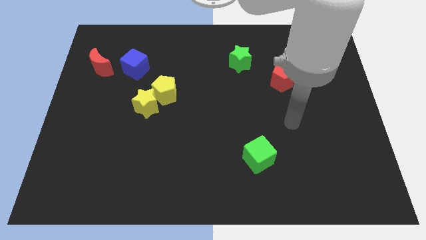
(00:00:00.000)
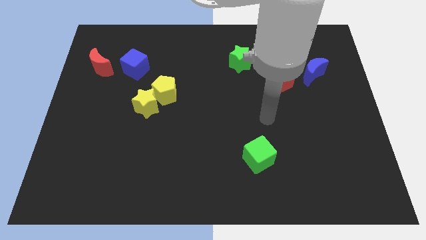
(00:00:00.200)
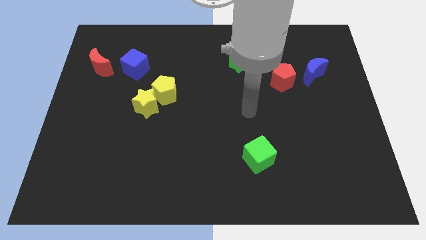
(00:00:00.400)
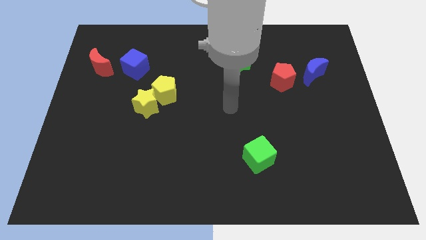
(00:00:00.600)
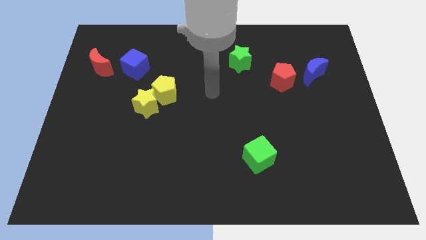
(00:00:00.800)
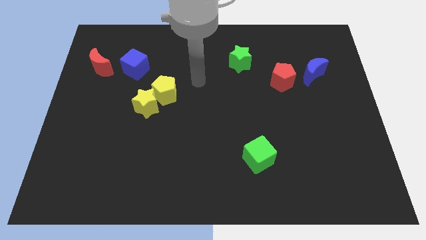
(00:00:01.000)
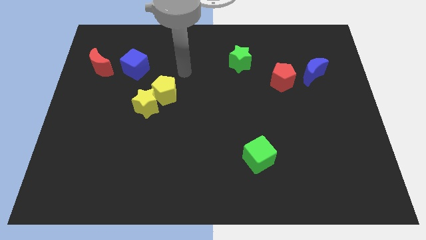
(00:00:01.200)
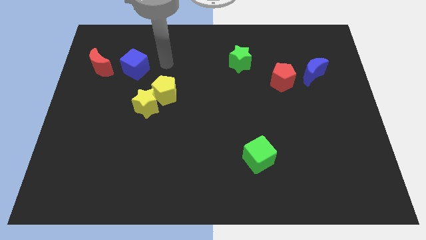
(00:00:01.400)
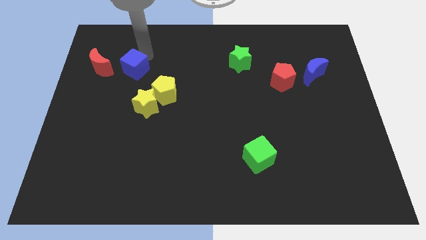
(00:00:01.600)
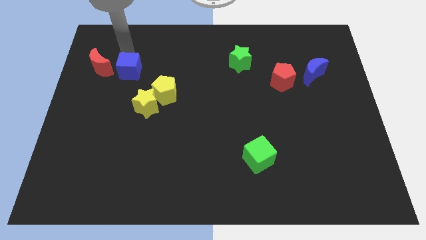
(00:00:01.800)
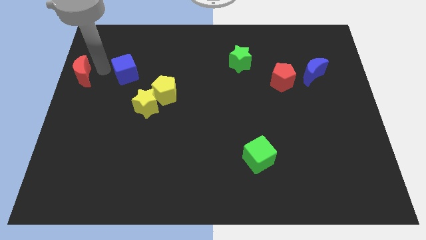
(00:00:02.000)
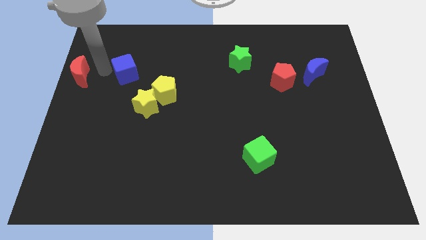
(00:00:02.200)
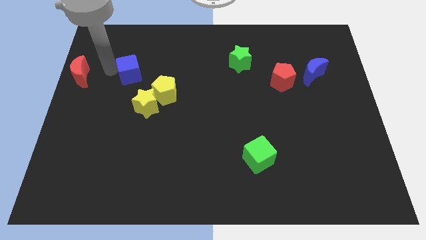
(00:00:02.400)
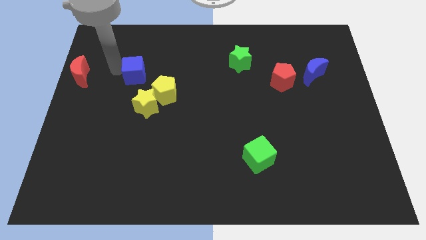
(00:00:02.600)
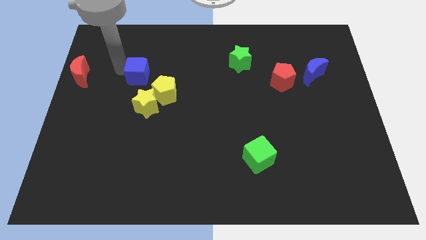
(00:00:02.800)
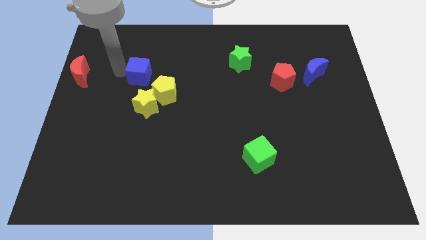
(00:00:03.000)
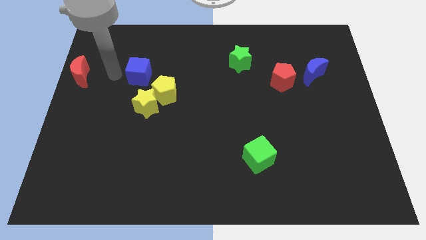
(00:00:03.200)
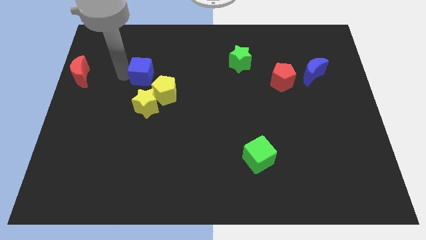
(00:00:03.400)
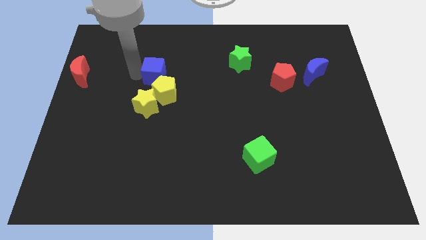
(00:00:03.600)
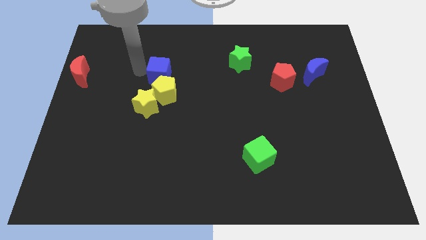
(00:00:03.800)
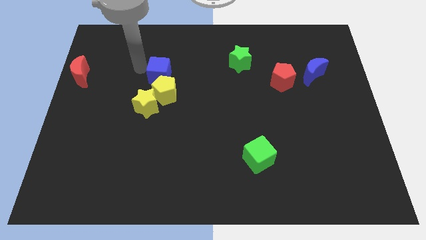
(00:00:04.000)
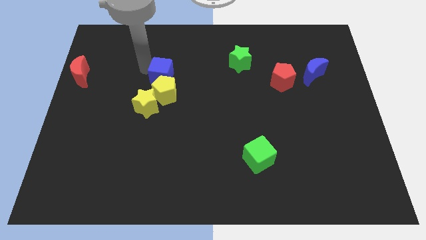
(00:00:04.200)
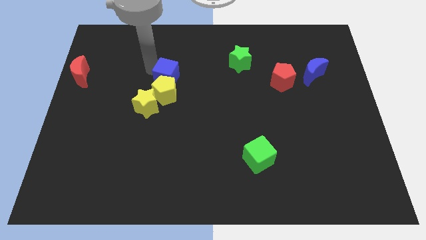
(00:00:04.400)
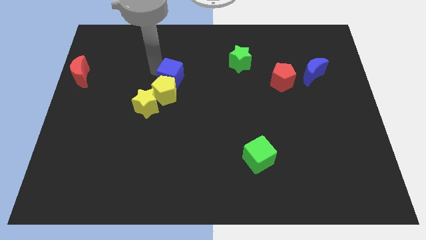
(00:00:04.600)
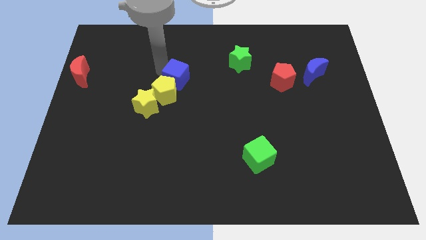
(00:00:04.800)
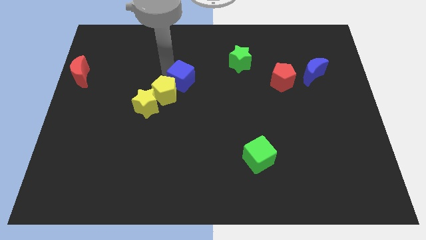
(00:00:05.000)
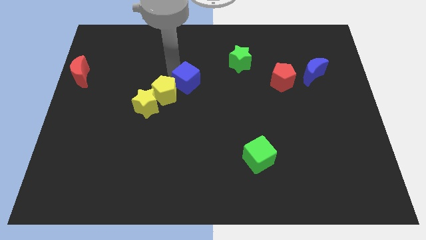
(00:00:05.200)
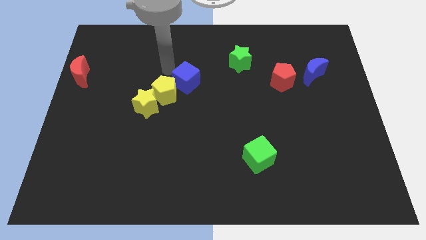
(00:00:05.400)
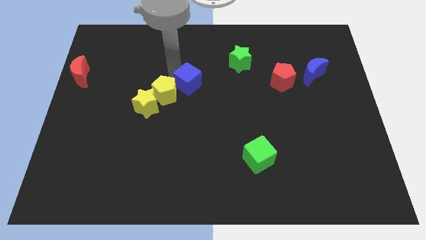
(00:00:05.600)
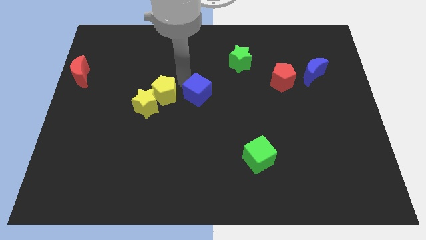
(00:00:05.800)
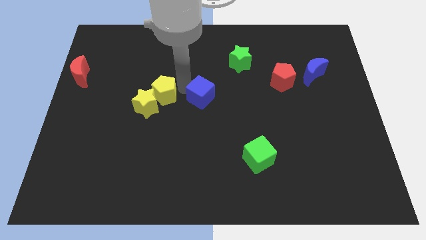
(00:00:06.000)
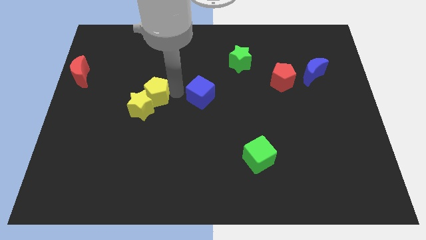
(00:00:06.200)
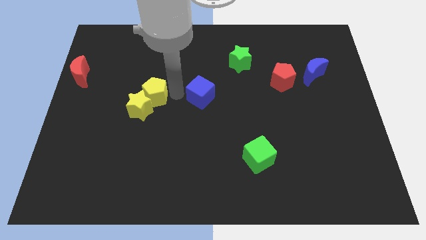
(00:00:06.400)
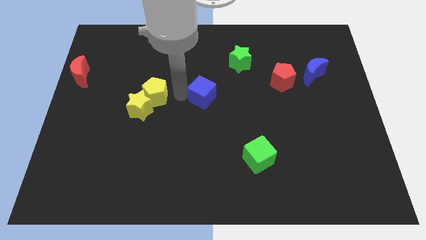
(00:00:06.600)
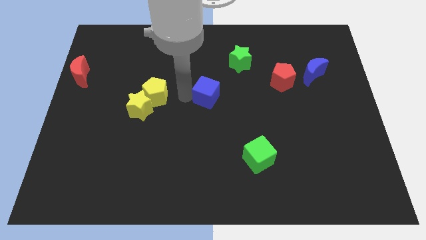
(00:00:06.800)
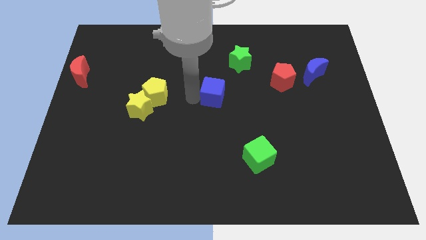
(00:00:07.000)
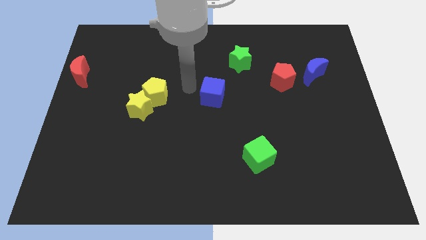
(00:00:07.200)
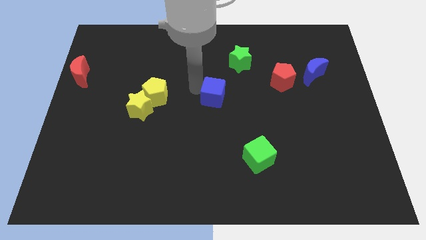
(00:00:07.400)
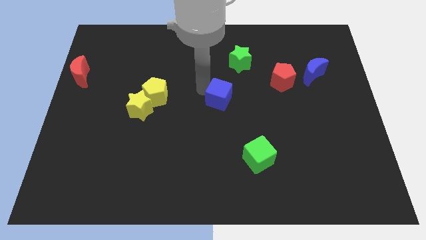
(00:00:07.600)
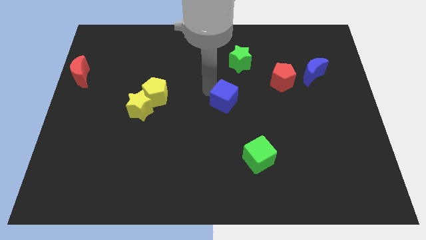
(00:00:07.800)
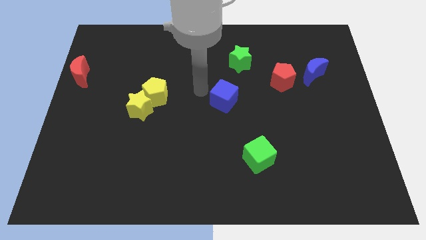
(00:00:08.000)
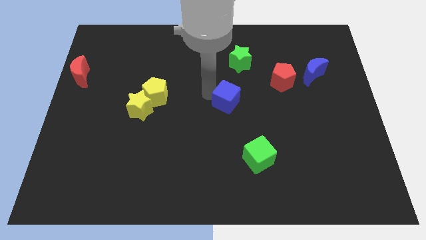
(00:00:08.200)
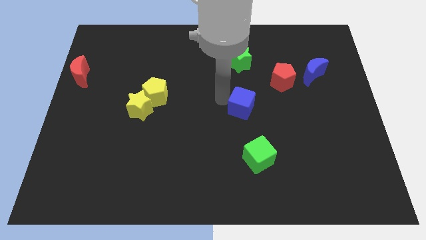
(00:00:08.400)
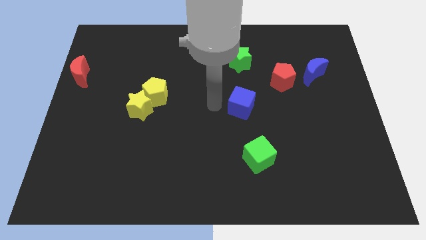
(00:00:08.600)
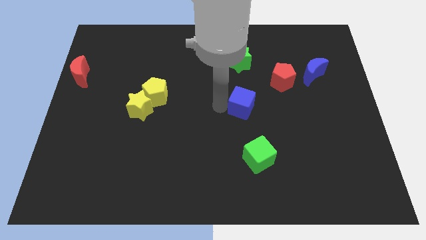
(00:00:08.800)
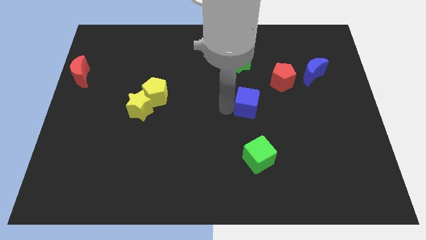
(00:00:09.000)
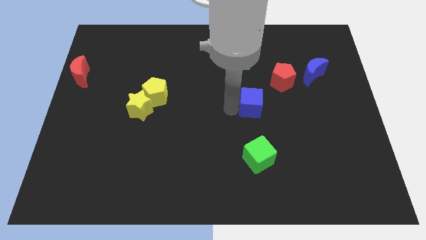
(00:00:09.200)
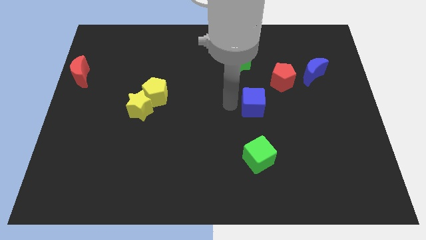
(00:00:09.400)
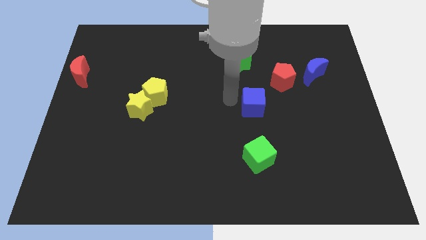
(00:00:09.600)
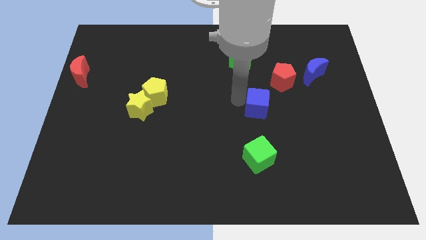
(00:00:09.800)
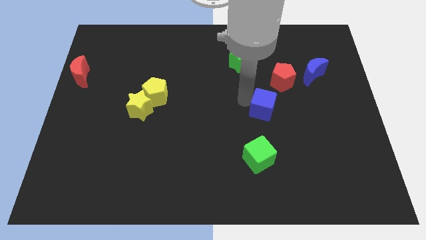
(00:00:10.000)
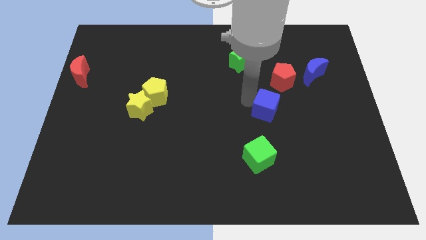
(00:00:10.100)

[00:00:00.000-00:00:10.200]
move the blue cube to the bottom of the red pentagon

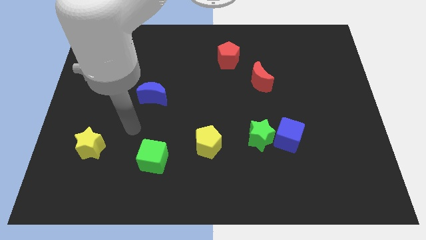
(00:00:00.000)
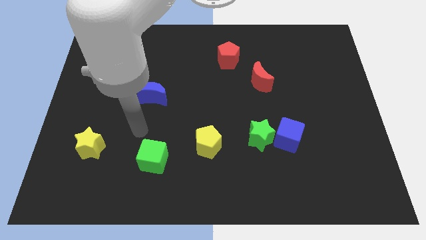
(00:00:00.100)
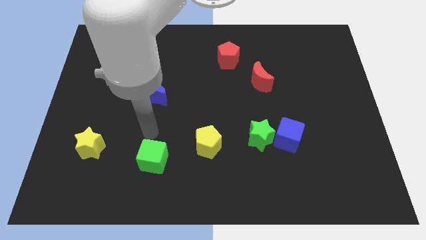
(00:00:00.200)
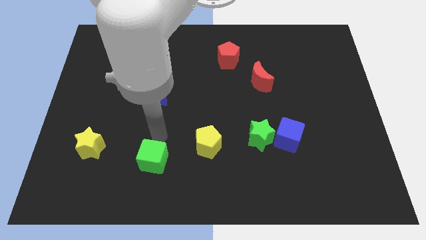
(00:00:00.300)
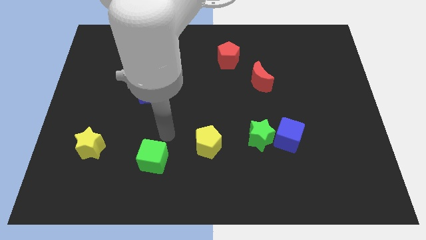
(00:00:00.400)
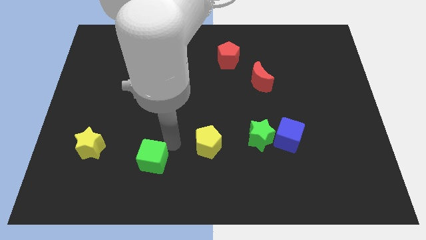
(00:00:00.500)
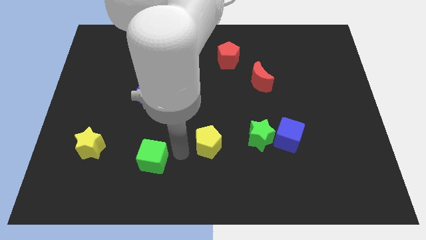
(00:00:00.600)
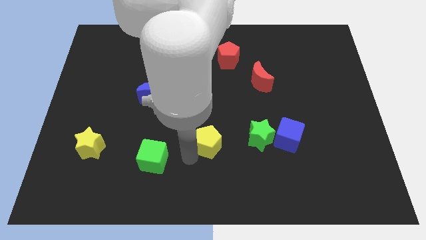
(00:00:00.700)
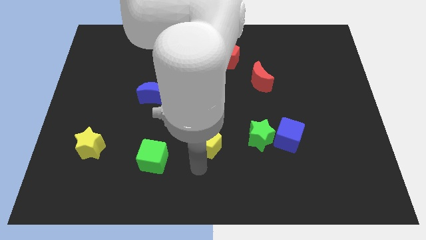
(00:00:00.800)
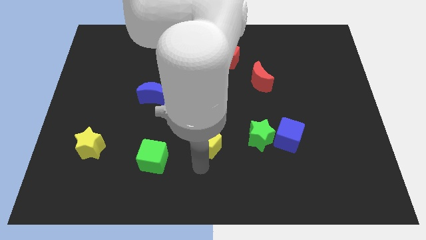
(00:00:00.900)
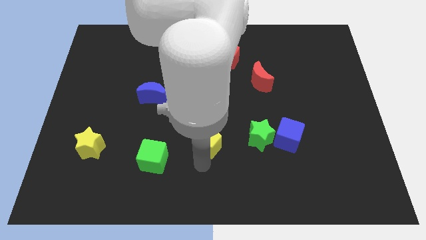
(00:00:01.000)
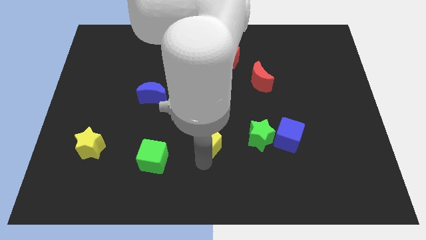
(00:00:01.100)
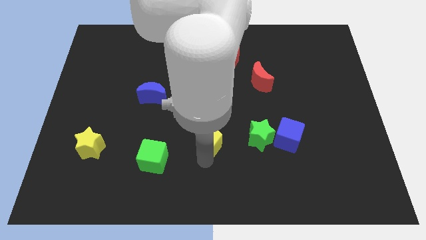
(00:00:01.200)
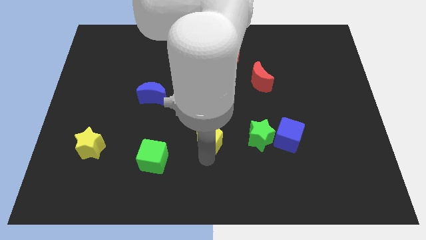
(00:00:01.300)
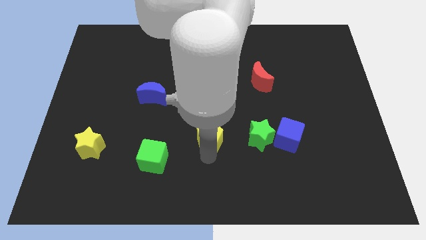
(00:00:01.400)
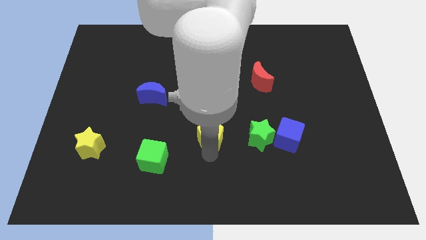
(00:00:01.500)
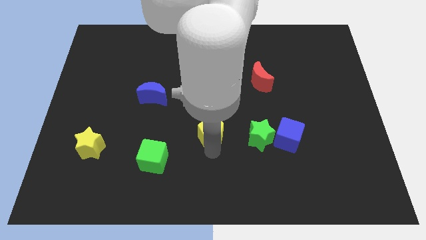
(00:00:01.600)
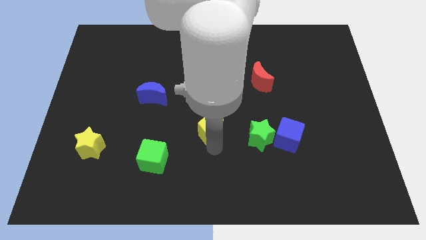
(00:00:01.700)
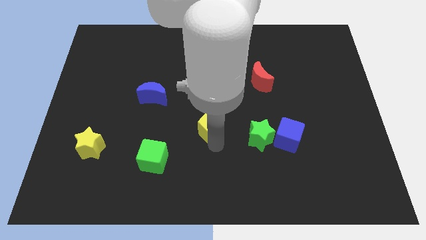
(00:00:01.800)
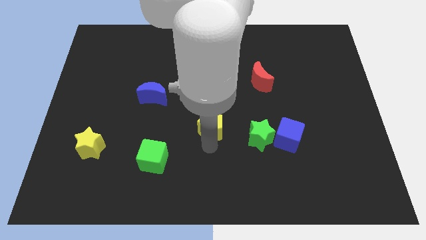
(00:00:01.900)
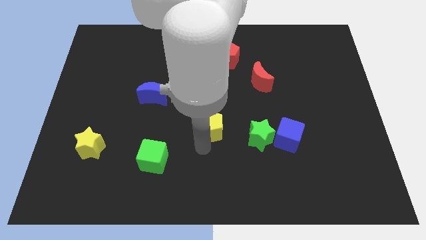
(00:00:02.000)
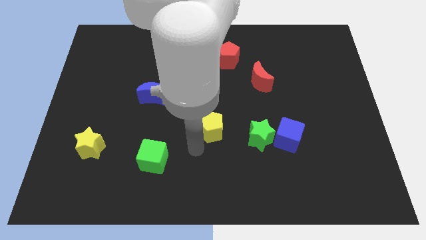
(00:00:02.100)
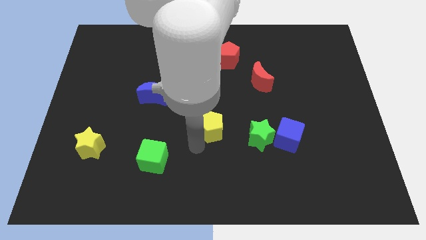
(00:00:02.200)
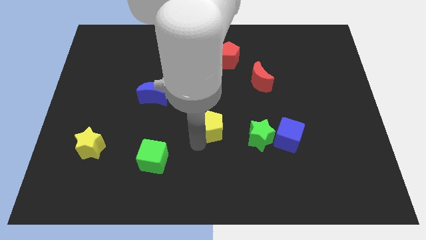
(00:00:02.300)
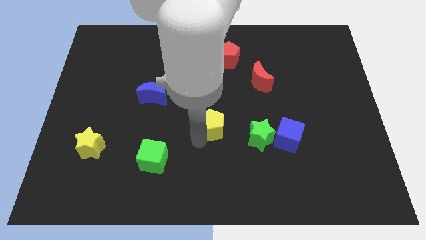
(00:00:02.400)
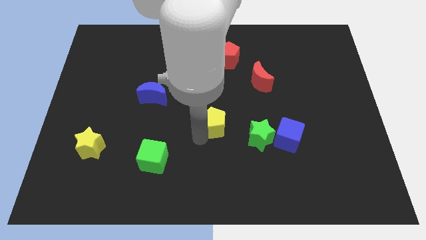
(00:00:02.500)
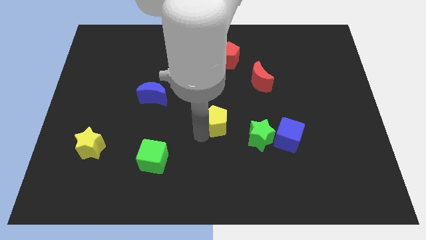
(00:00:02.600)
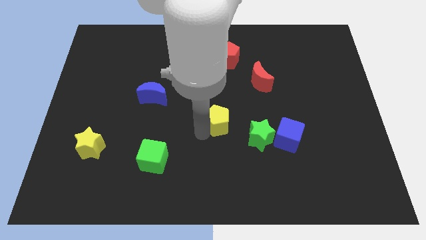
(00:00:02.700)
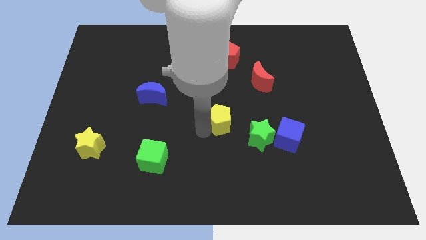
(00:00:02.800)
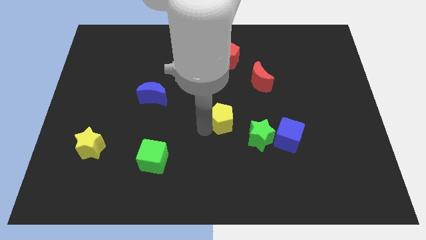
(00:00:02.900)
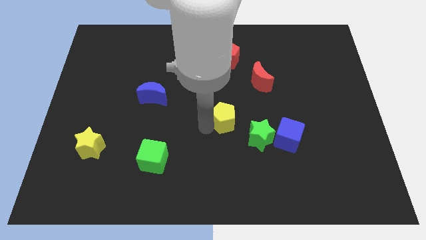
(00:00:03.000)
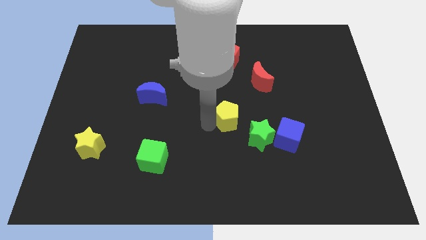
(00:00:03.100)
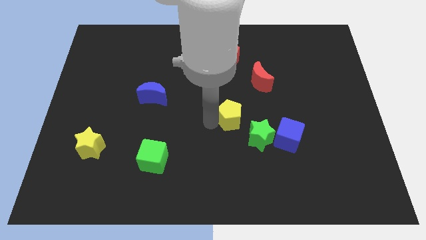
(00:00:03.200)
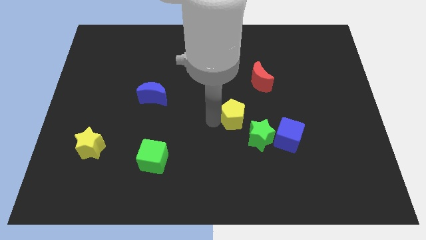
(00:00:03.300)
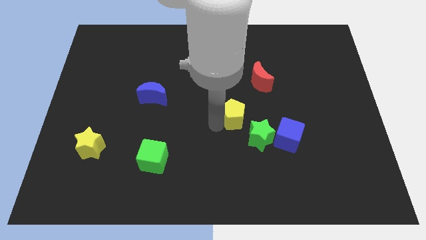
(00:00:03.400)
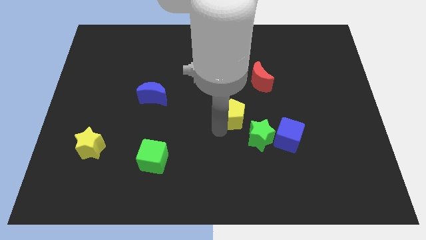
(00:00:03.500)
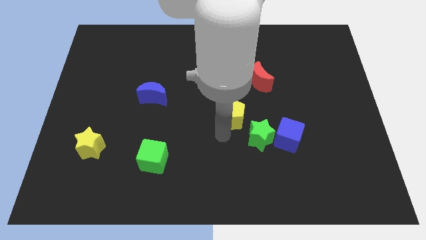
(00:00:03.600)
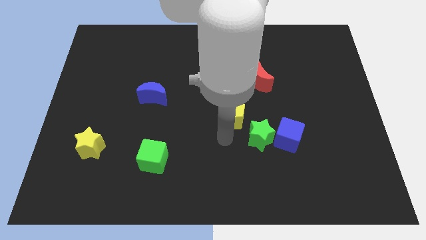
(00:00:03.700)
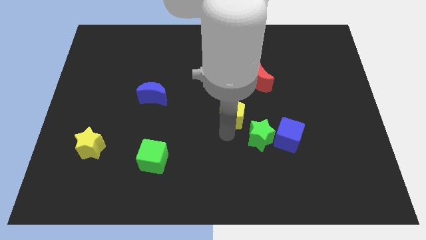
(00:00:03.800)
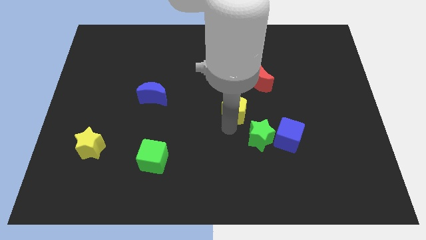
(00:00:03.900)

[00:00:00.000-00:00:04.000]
push the yellow pentagon to the bottom left of the red moon
